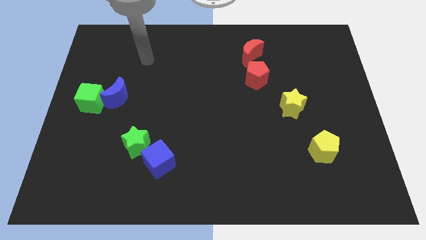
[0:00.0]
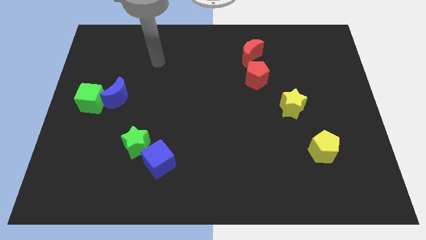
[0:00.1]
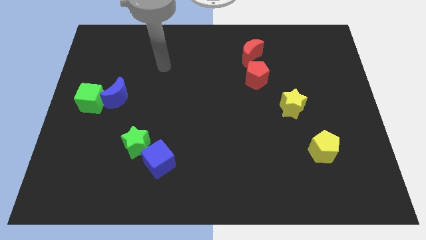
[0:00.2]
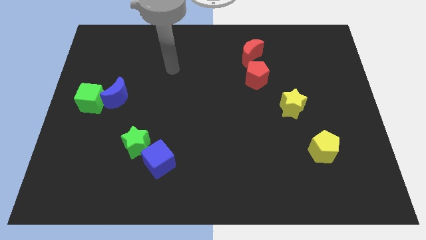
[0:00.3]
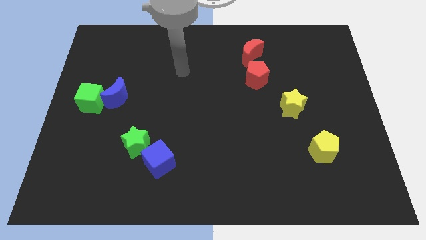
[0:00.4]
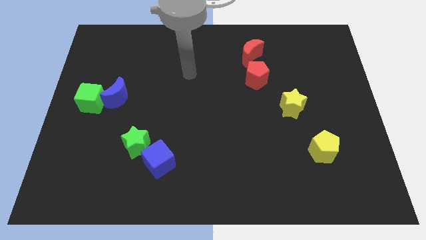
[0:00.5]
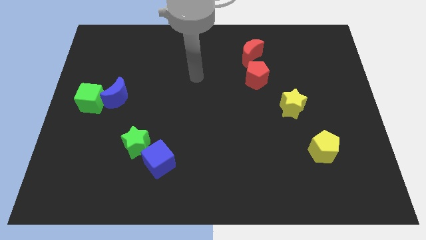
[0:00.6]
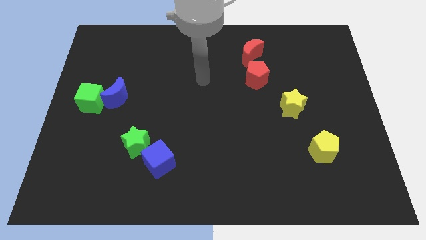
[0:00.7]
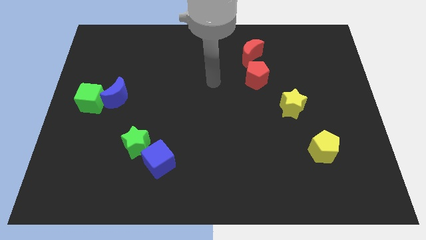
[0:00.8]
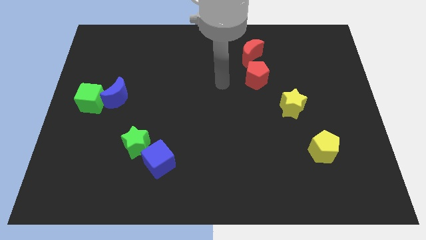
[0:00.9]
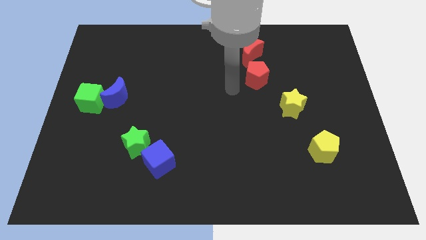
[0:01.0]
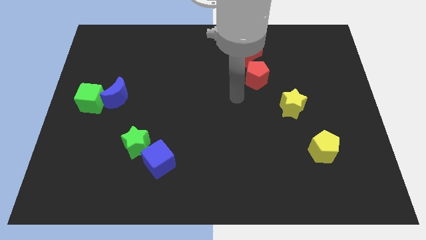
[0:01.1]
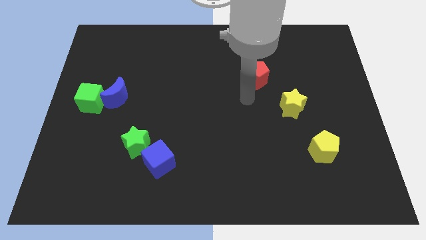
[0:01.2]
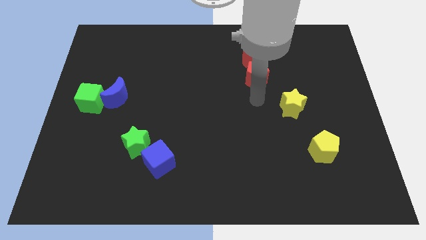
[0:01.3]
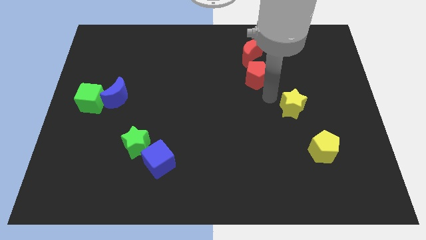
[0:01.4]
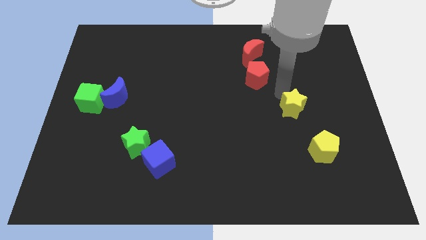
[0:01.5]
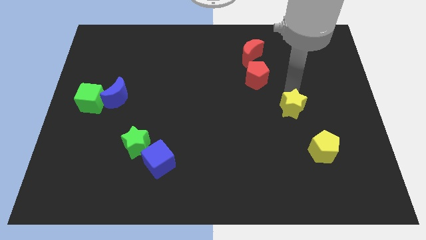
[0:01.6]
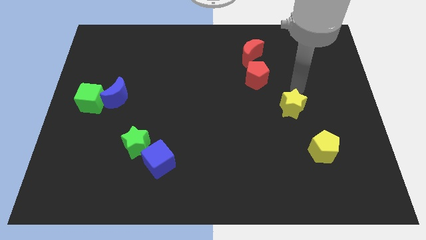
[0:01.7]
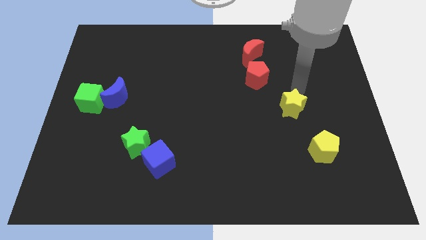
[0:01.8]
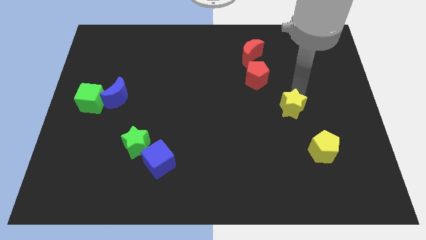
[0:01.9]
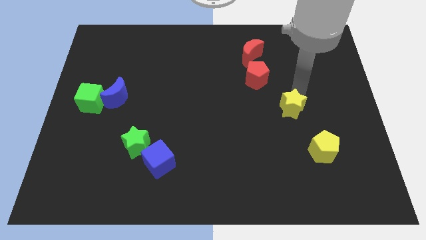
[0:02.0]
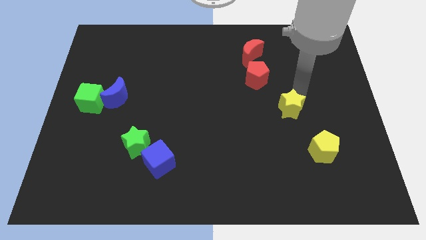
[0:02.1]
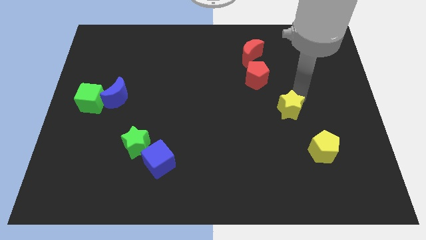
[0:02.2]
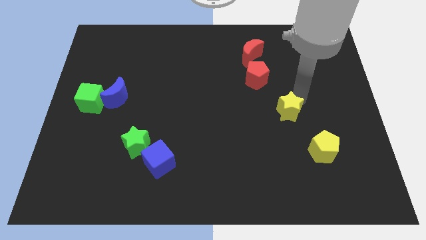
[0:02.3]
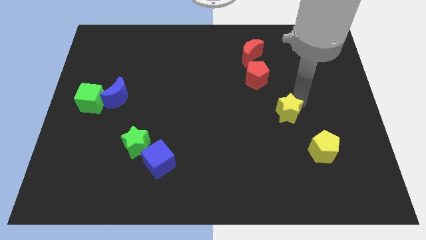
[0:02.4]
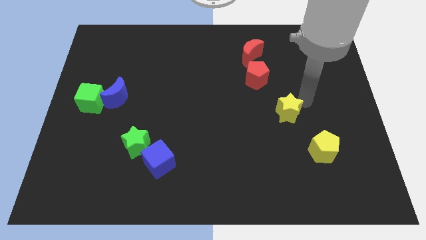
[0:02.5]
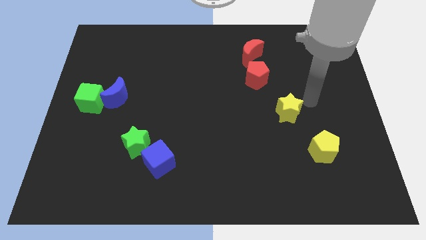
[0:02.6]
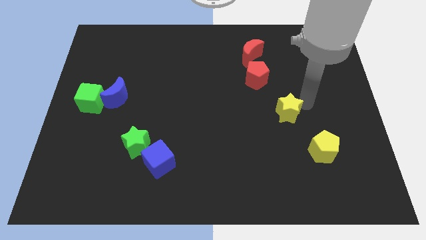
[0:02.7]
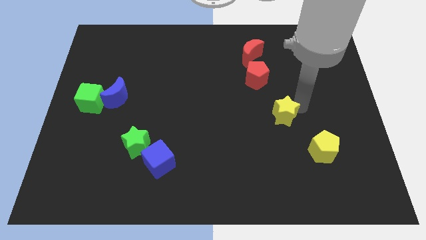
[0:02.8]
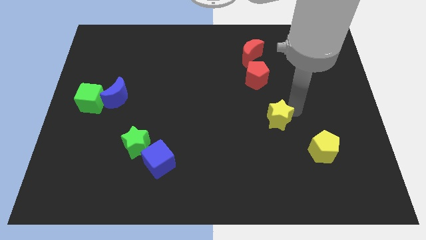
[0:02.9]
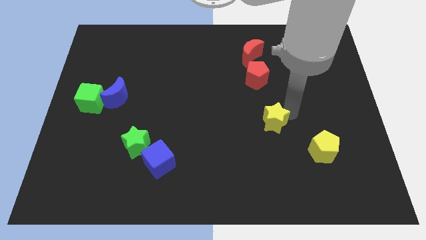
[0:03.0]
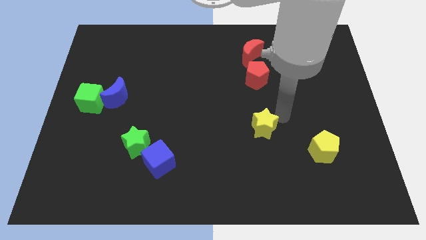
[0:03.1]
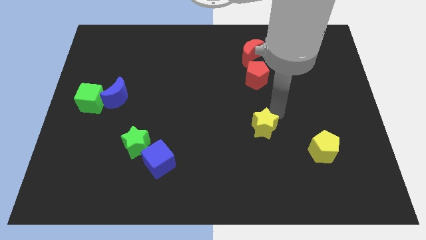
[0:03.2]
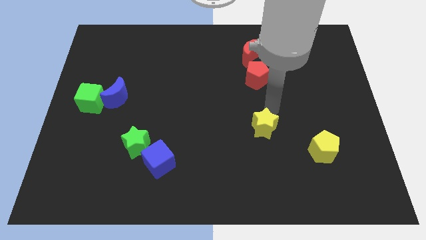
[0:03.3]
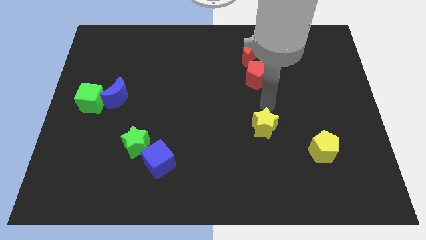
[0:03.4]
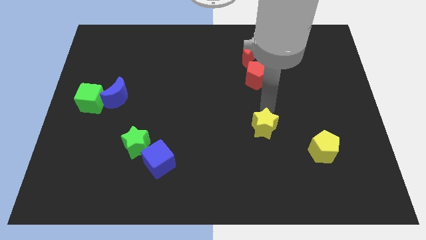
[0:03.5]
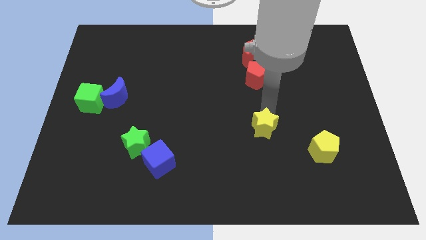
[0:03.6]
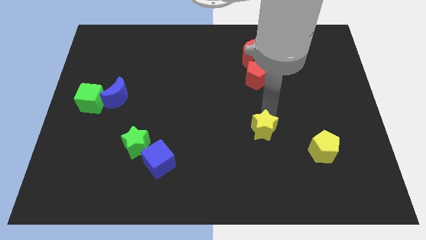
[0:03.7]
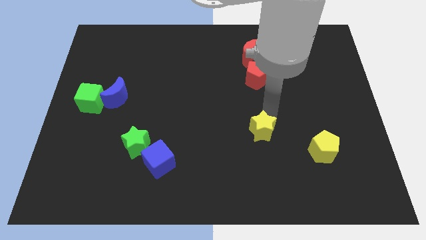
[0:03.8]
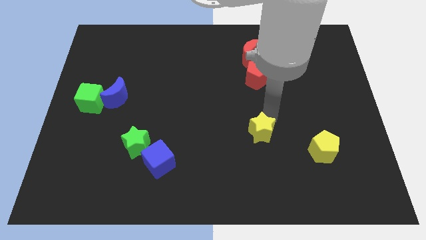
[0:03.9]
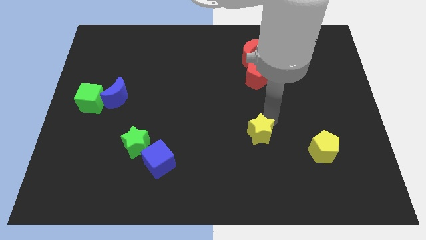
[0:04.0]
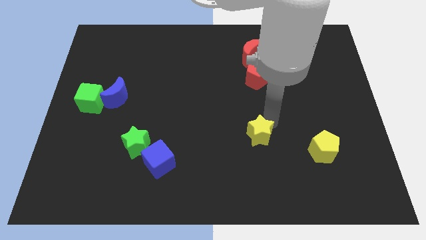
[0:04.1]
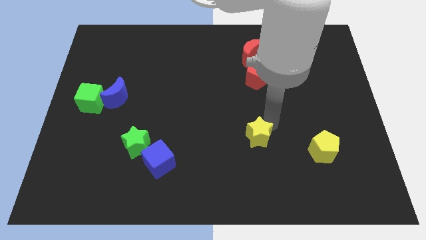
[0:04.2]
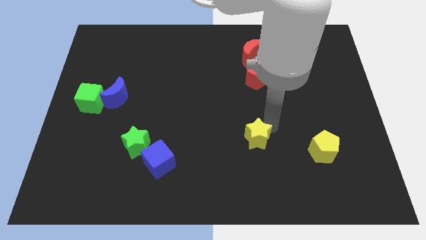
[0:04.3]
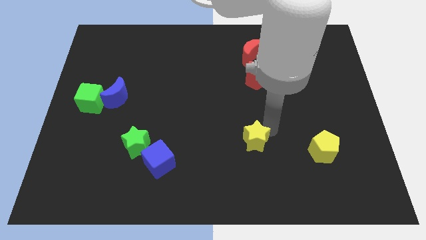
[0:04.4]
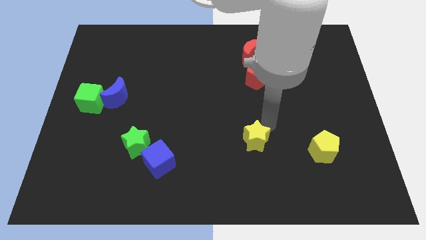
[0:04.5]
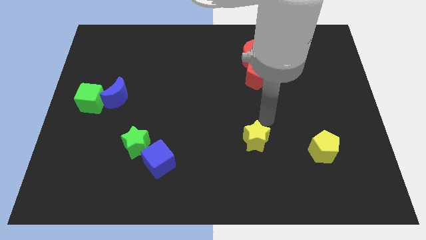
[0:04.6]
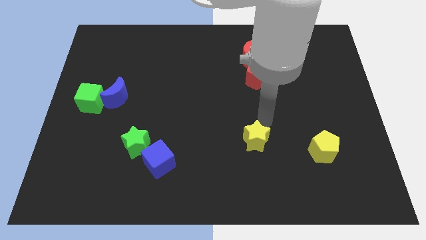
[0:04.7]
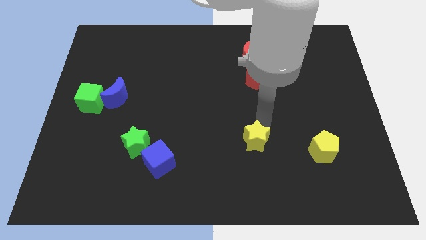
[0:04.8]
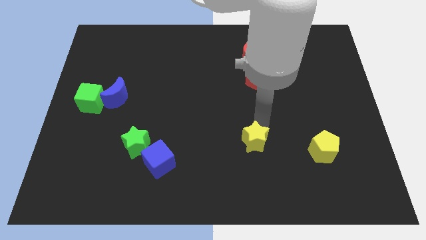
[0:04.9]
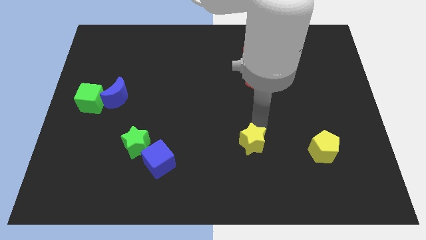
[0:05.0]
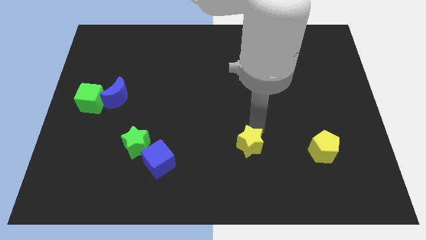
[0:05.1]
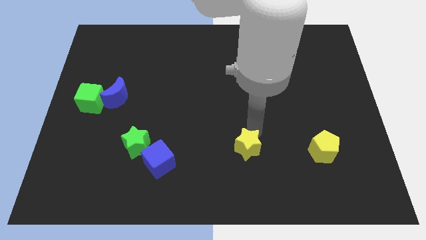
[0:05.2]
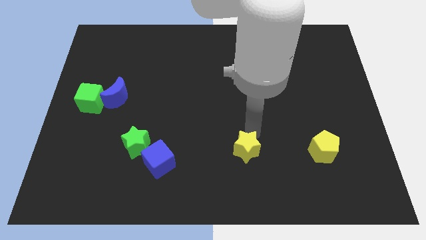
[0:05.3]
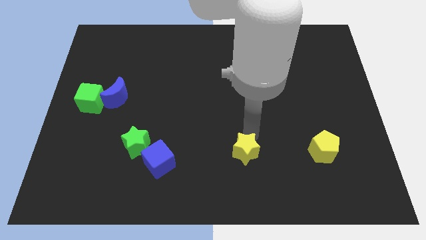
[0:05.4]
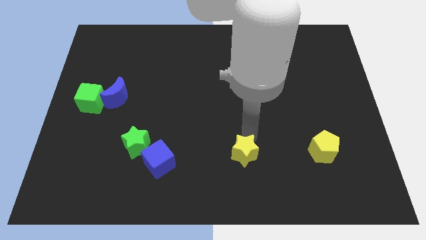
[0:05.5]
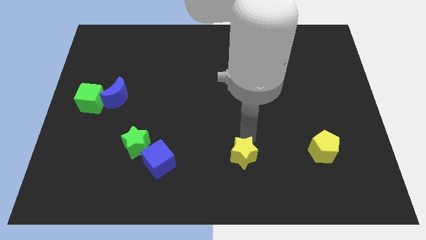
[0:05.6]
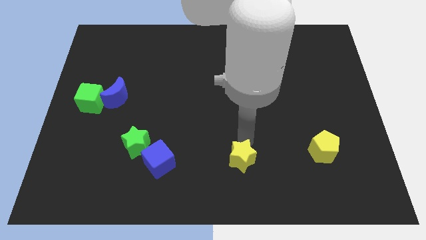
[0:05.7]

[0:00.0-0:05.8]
push the yellow star to the bottom

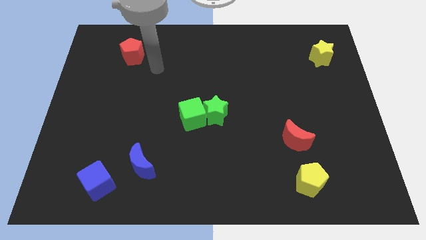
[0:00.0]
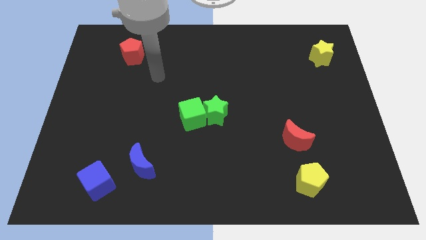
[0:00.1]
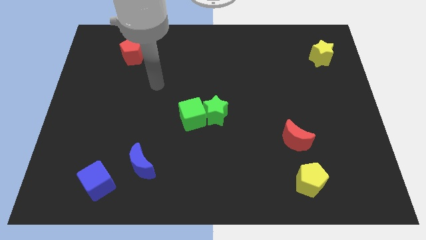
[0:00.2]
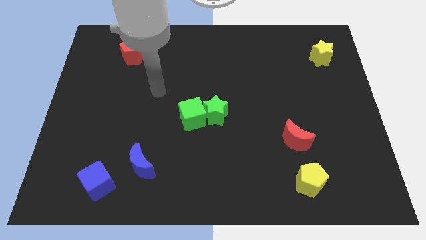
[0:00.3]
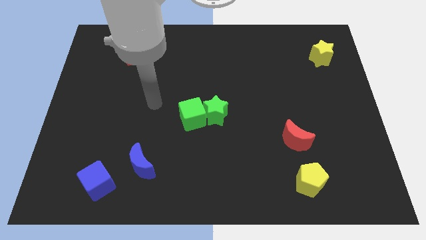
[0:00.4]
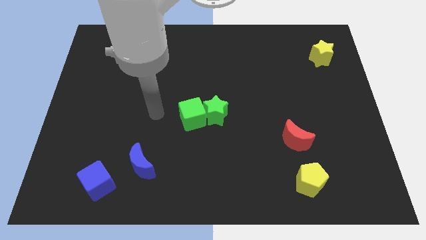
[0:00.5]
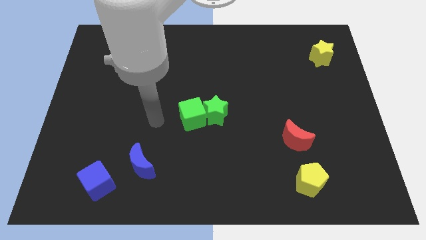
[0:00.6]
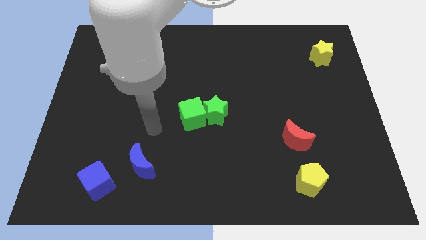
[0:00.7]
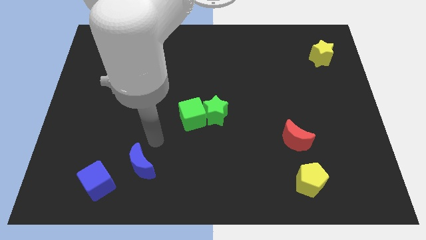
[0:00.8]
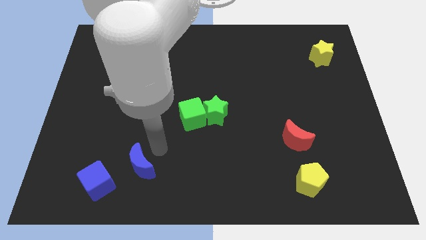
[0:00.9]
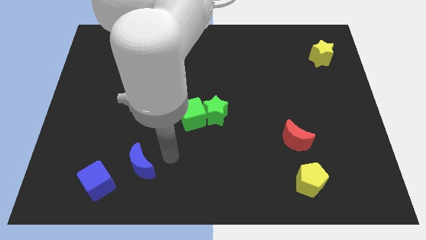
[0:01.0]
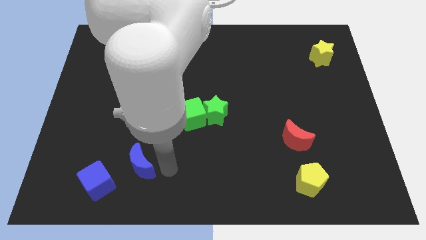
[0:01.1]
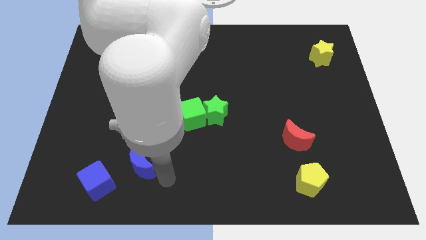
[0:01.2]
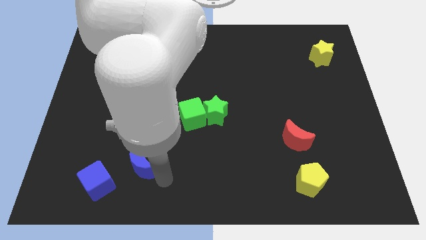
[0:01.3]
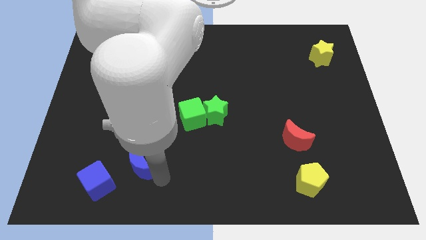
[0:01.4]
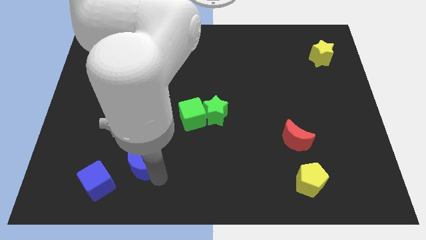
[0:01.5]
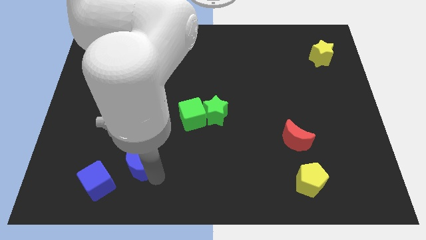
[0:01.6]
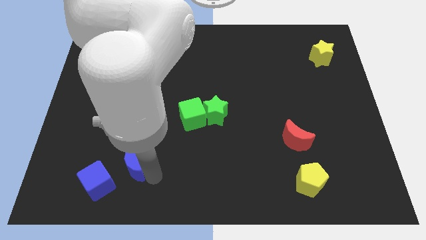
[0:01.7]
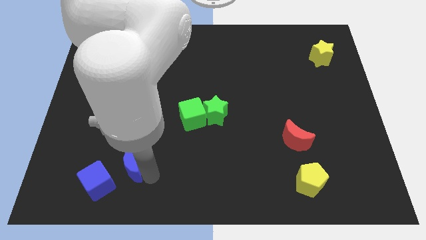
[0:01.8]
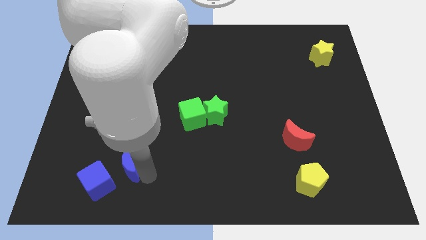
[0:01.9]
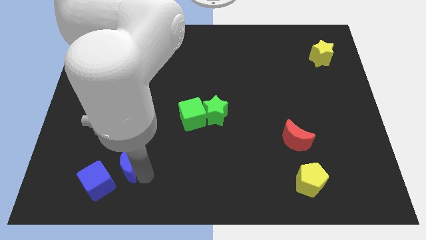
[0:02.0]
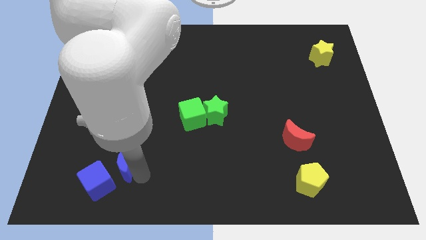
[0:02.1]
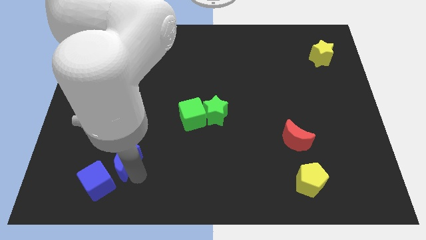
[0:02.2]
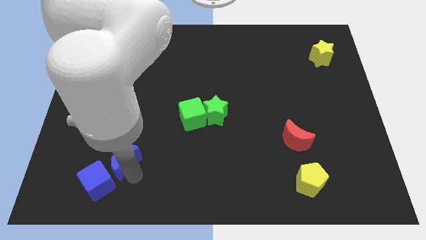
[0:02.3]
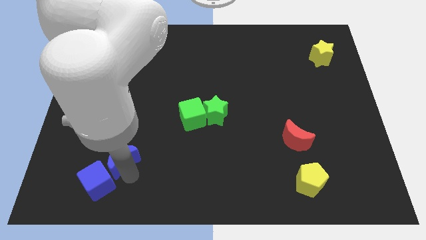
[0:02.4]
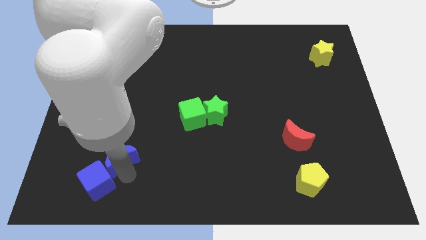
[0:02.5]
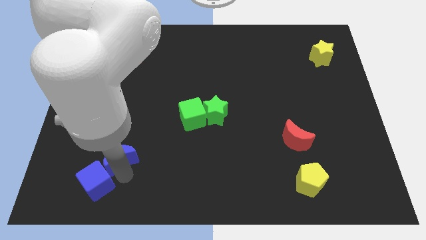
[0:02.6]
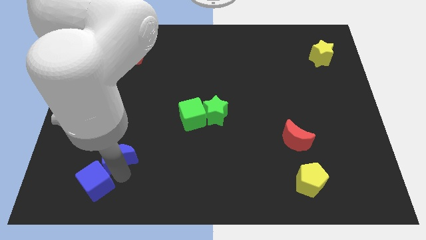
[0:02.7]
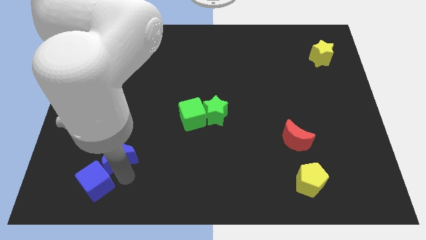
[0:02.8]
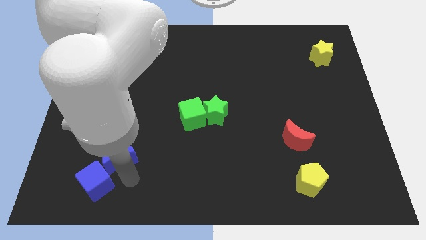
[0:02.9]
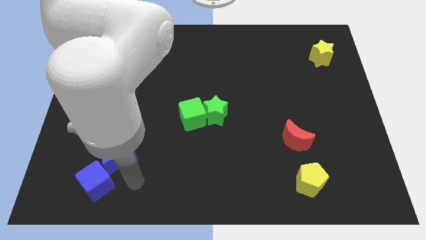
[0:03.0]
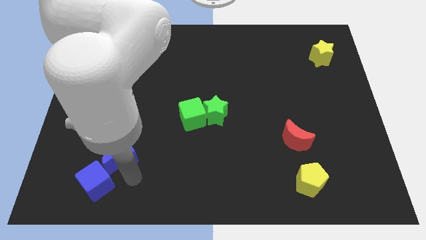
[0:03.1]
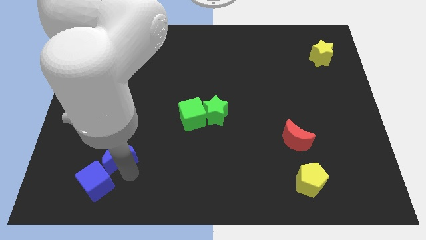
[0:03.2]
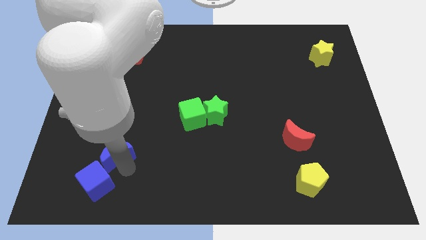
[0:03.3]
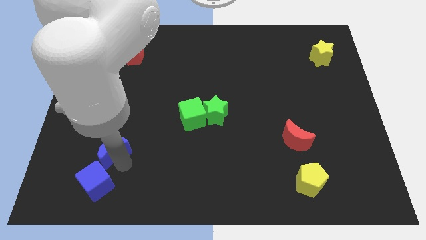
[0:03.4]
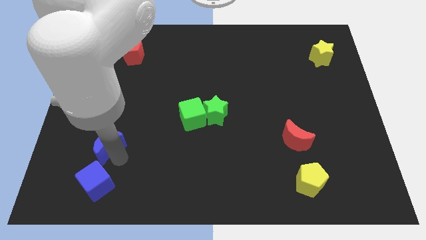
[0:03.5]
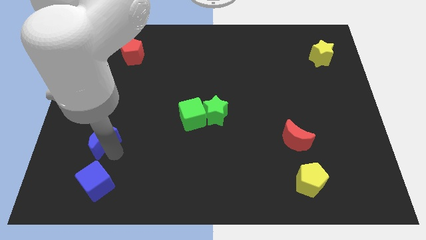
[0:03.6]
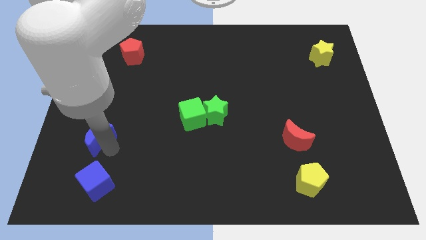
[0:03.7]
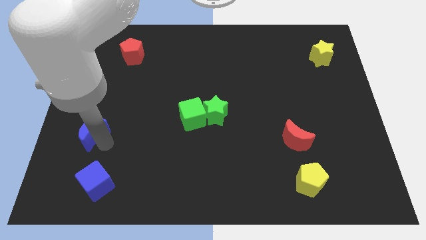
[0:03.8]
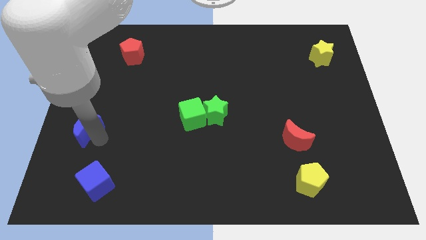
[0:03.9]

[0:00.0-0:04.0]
put the blue moon to the center left
